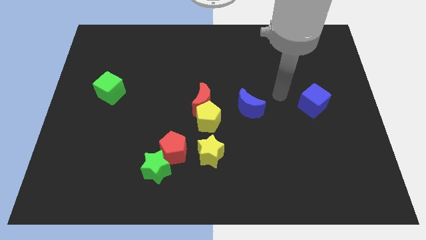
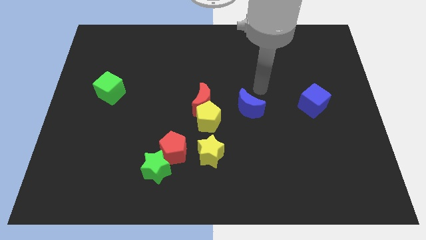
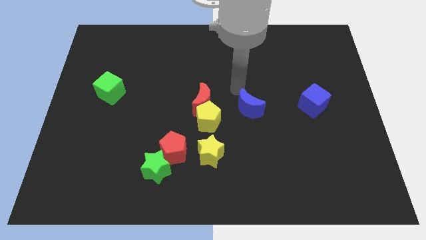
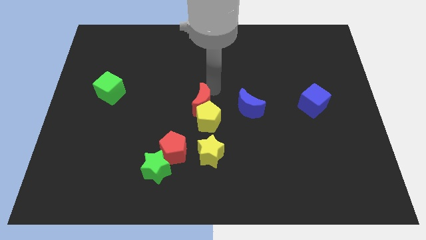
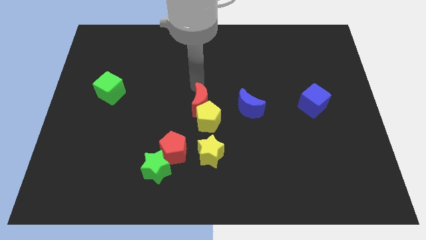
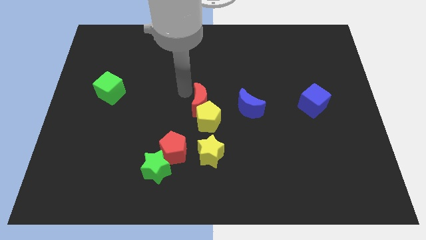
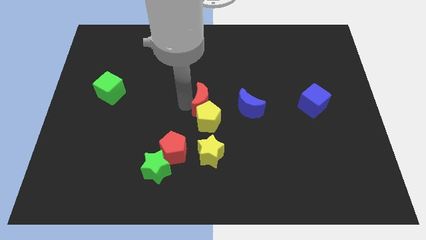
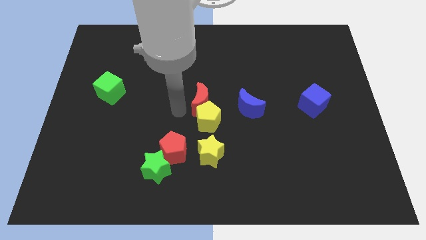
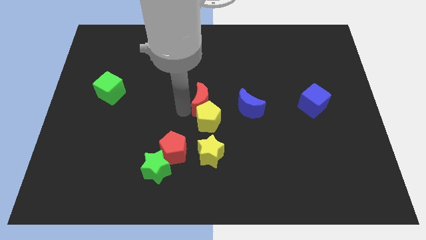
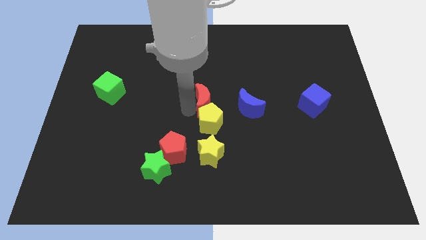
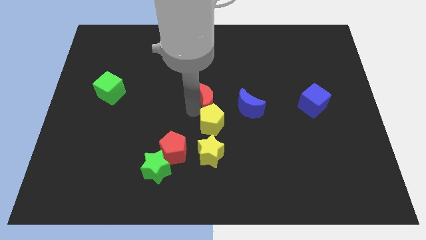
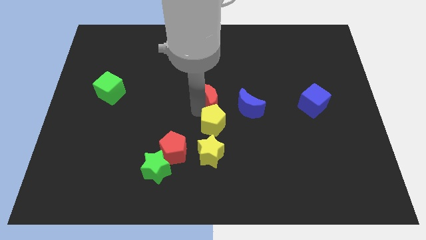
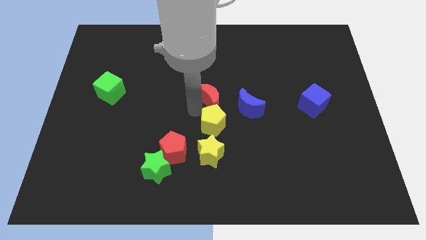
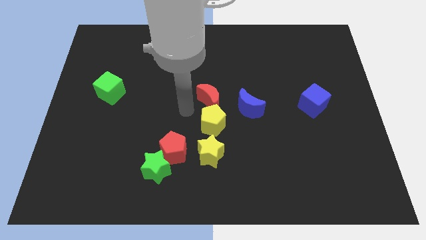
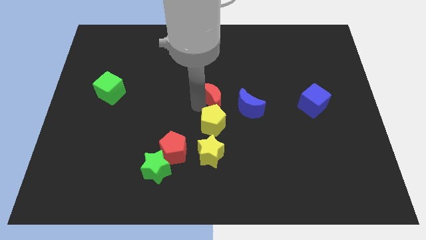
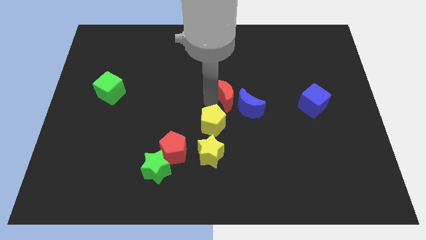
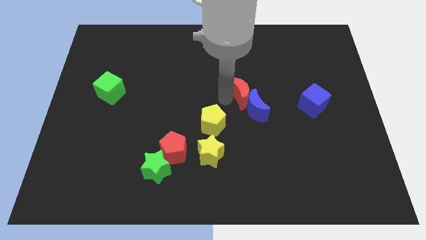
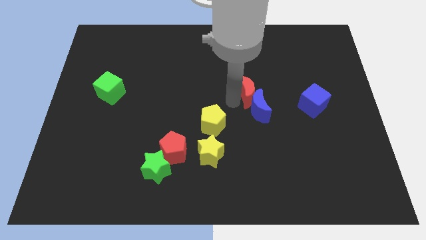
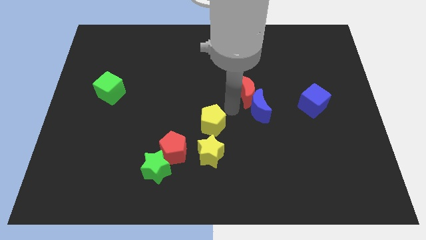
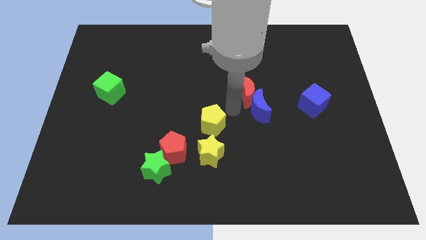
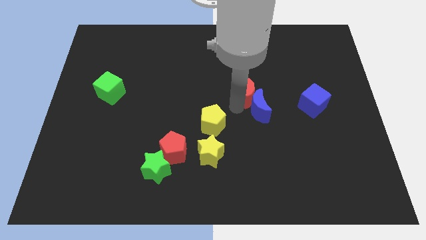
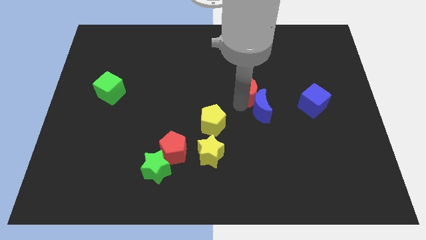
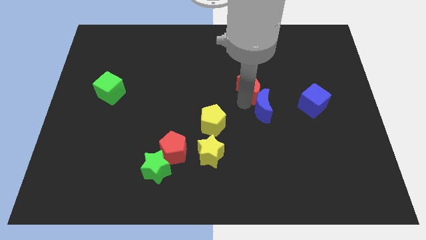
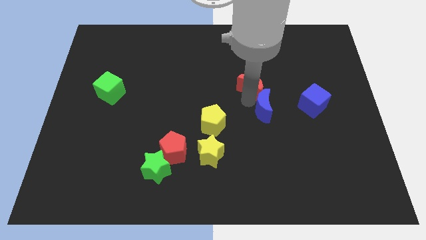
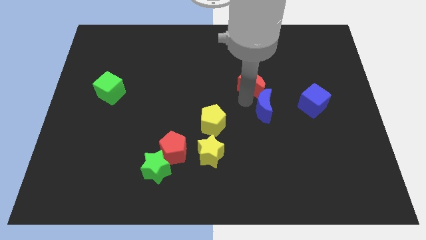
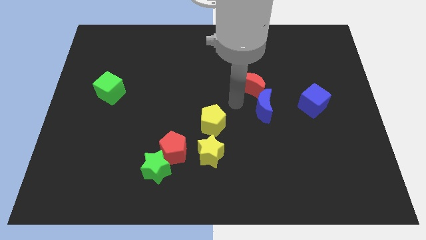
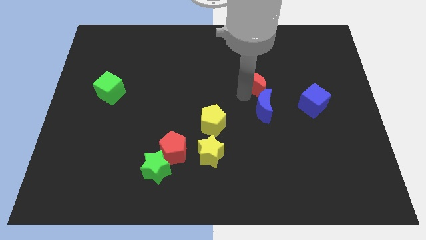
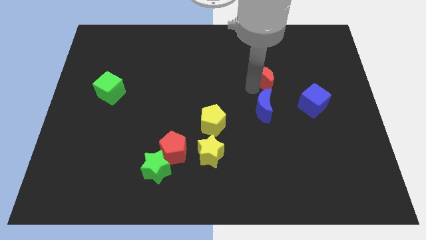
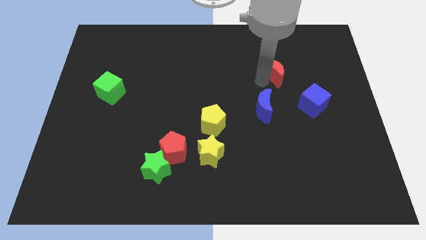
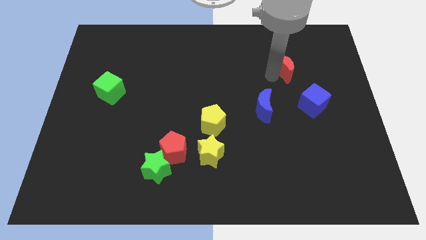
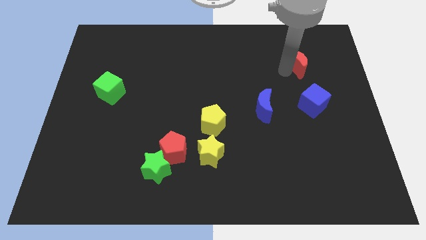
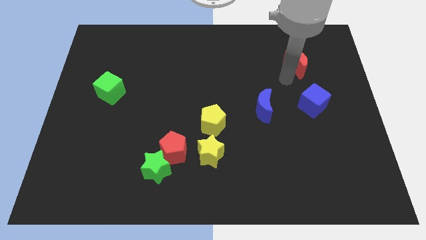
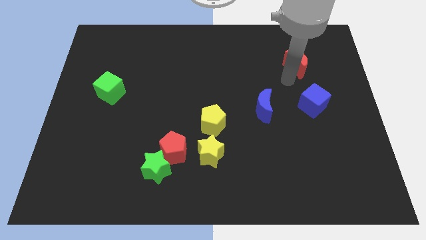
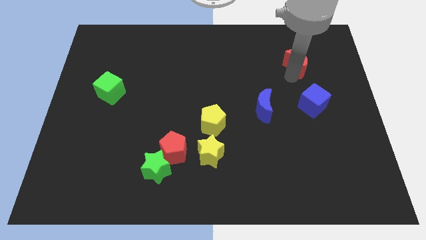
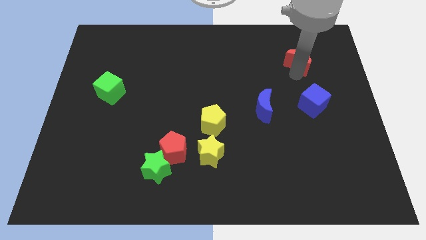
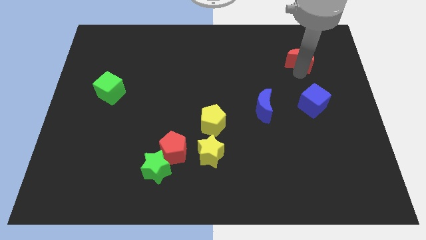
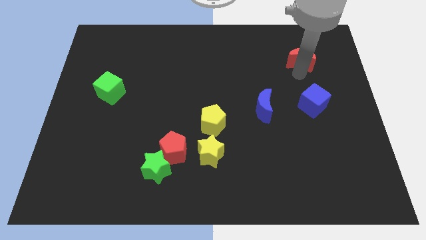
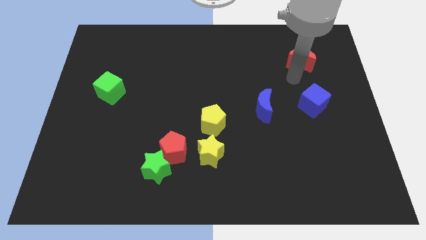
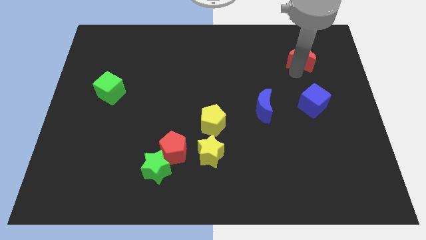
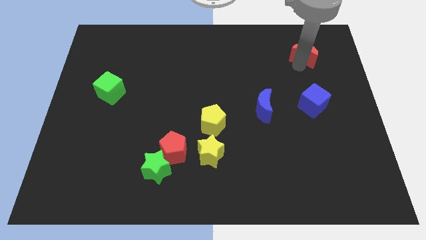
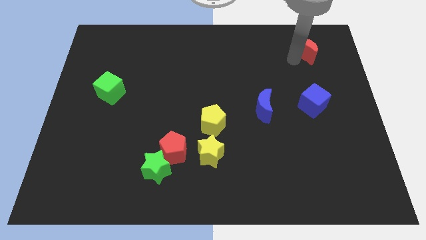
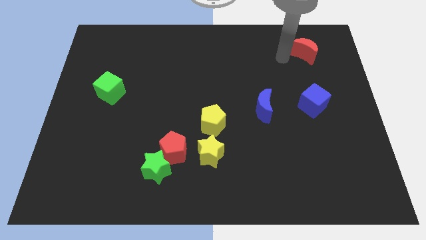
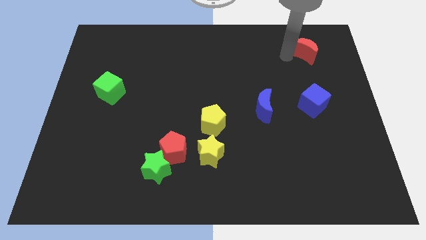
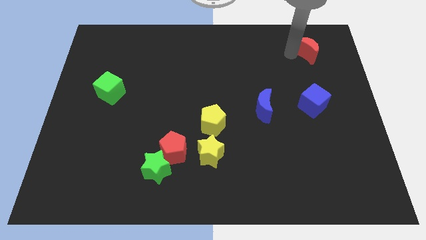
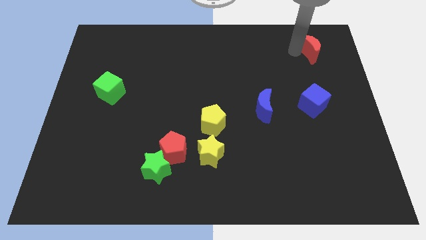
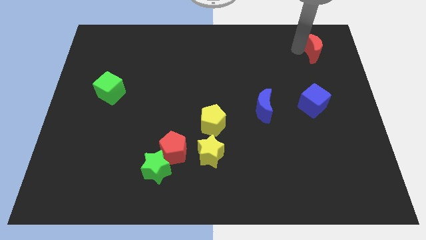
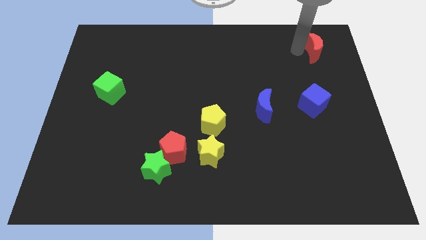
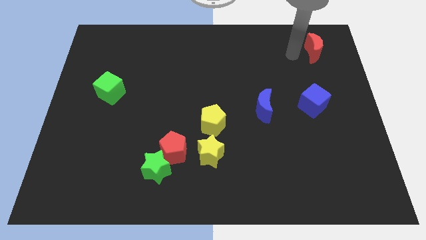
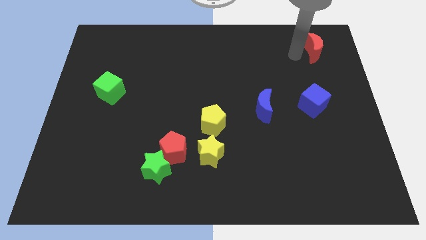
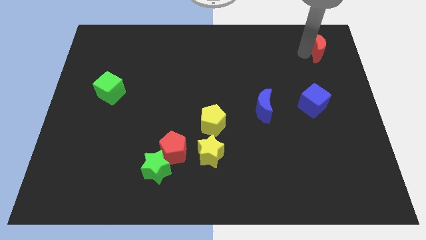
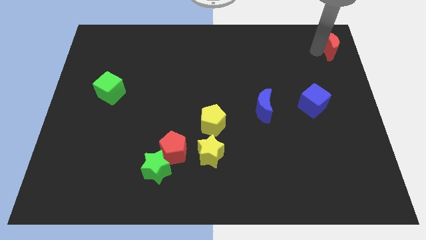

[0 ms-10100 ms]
slide the red moon to the top right
